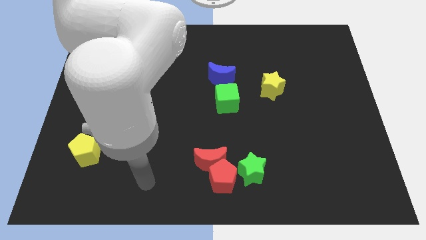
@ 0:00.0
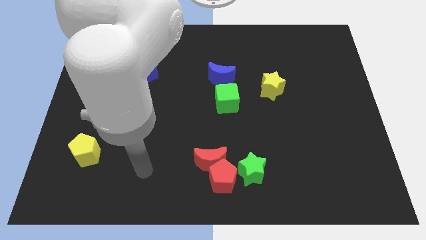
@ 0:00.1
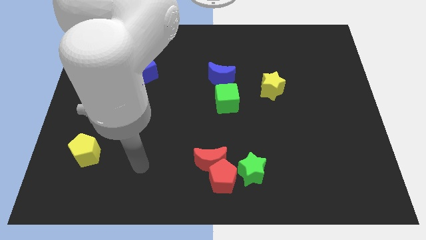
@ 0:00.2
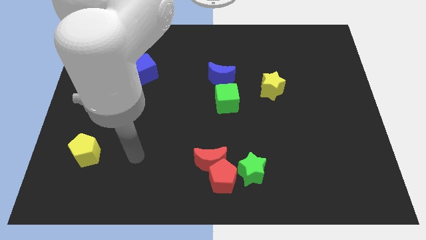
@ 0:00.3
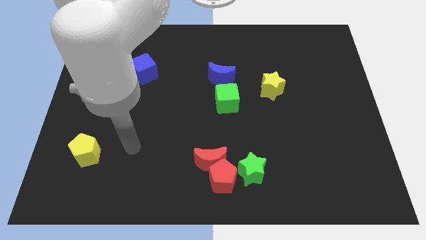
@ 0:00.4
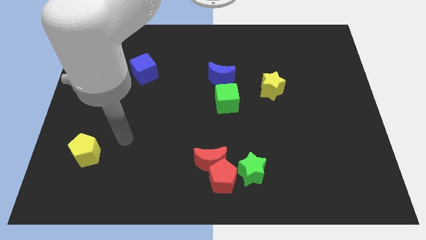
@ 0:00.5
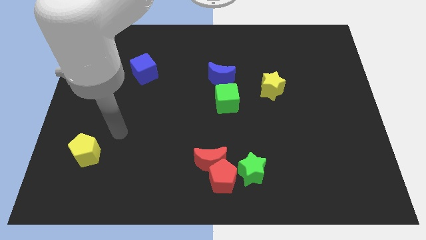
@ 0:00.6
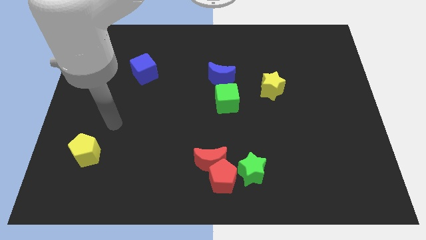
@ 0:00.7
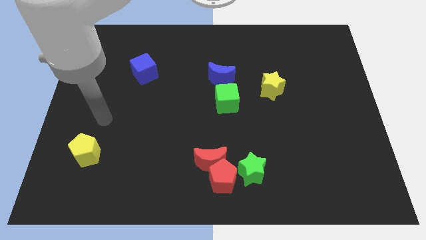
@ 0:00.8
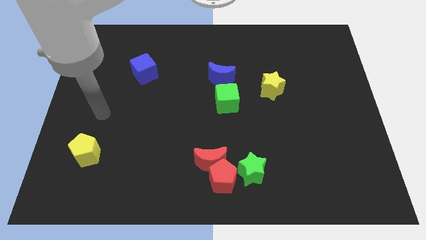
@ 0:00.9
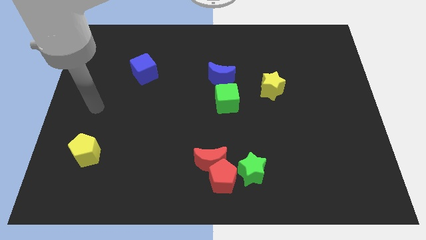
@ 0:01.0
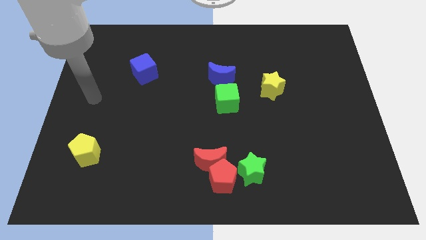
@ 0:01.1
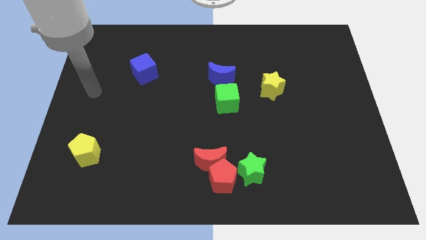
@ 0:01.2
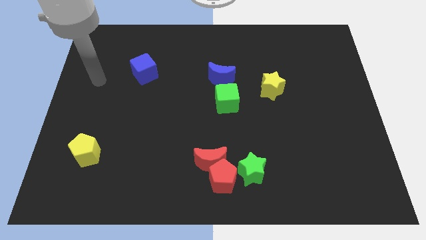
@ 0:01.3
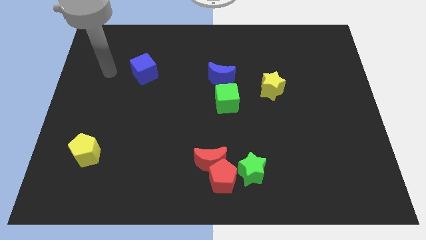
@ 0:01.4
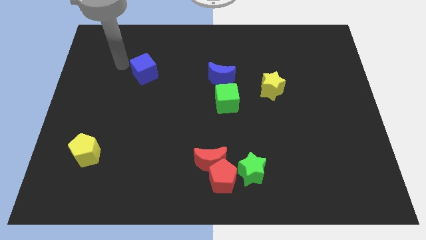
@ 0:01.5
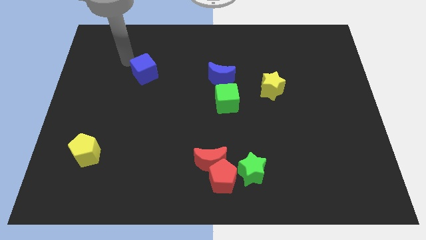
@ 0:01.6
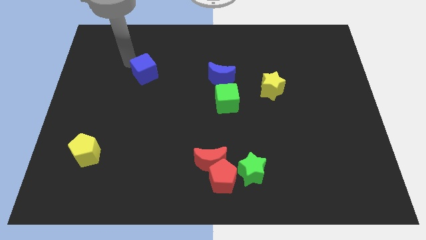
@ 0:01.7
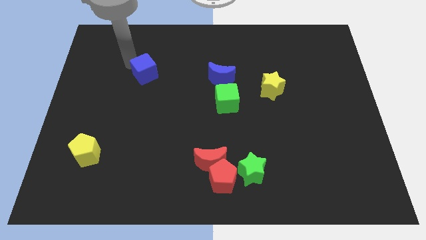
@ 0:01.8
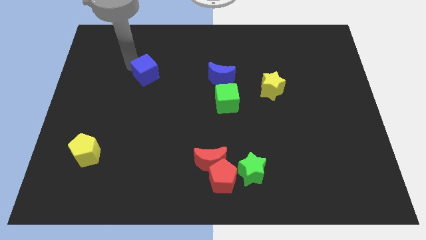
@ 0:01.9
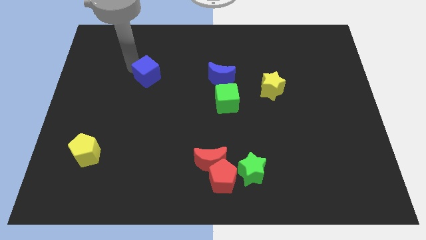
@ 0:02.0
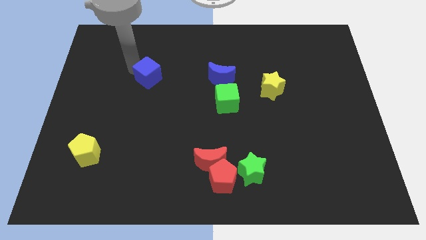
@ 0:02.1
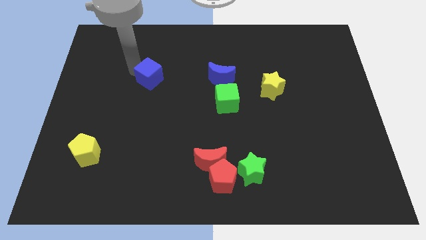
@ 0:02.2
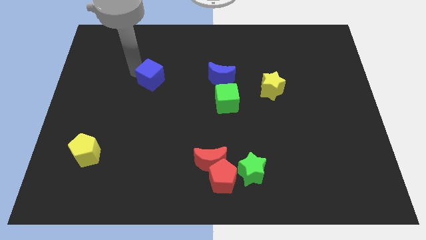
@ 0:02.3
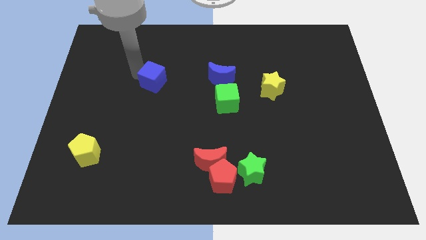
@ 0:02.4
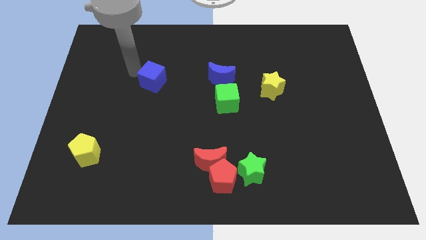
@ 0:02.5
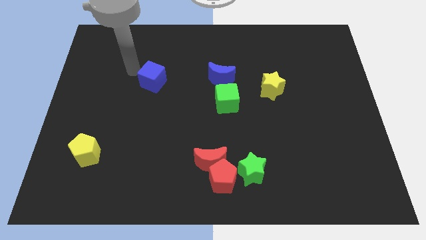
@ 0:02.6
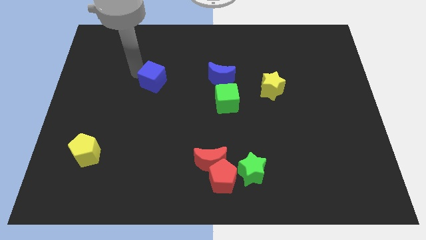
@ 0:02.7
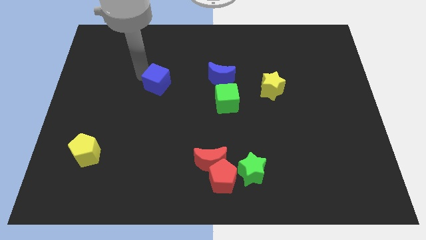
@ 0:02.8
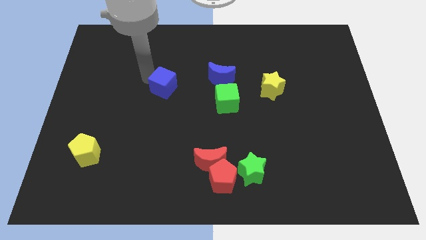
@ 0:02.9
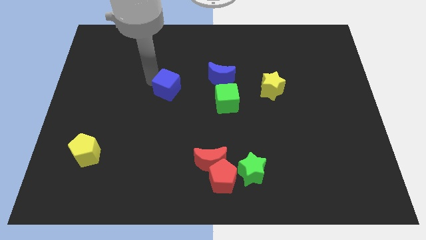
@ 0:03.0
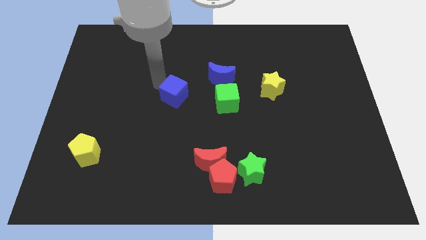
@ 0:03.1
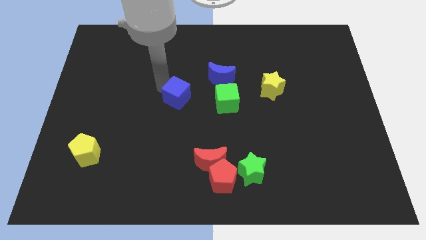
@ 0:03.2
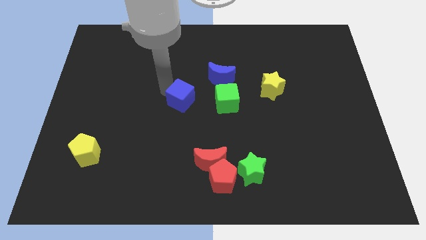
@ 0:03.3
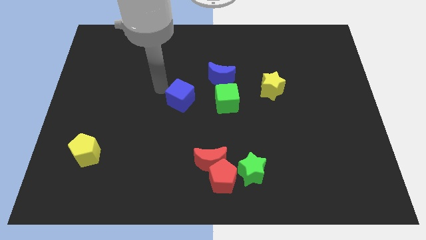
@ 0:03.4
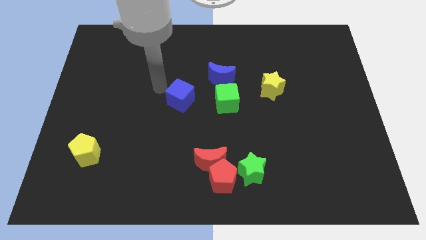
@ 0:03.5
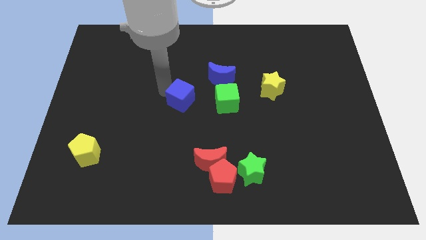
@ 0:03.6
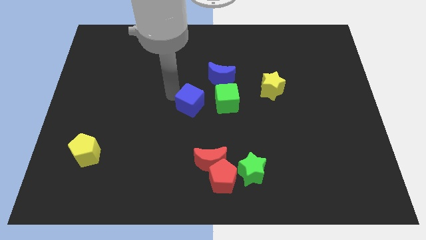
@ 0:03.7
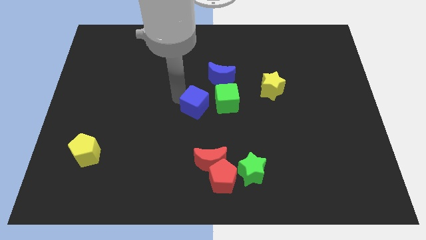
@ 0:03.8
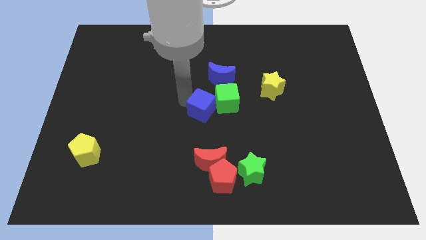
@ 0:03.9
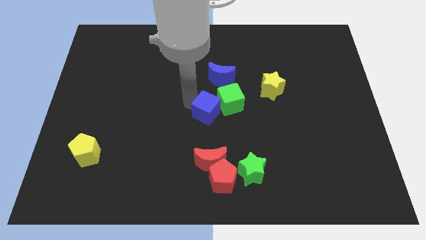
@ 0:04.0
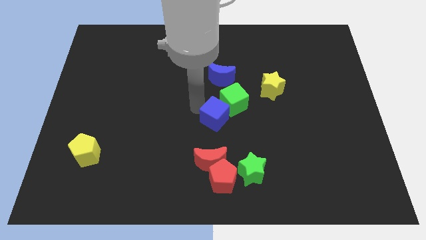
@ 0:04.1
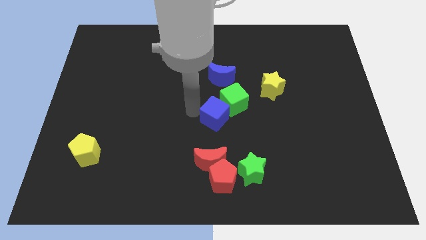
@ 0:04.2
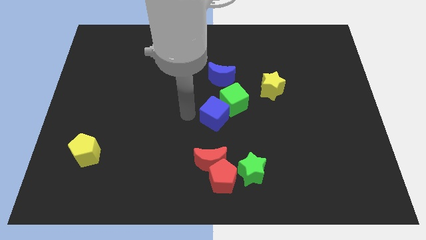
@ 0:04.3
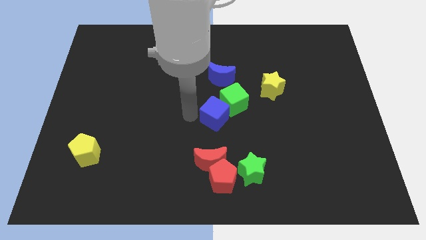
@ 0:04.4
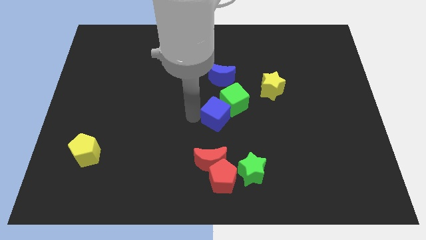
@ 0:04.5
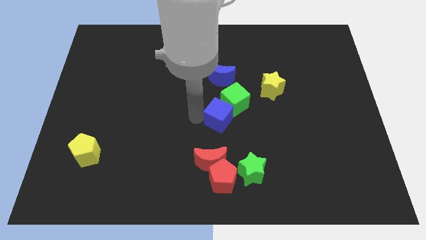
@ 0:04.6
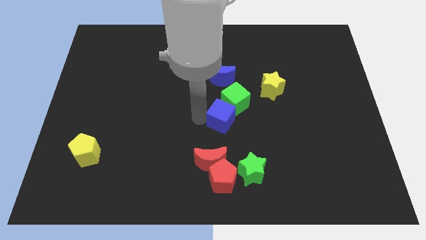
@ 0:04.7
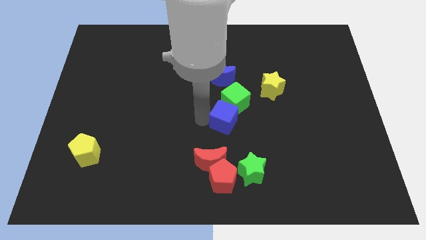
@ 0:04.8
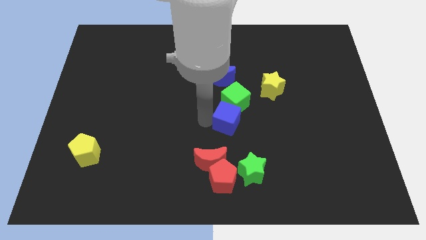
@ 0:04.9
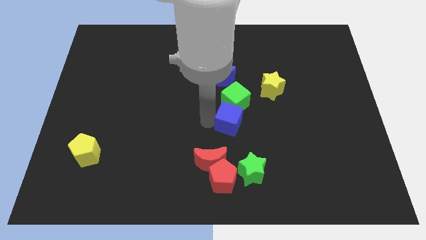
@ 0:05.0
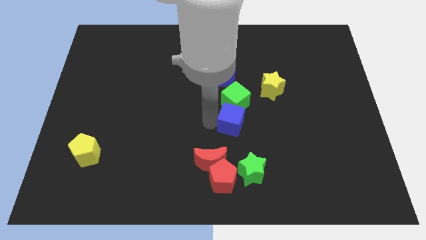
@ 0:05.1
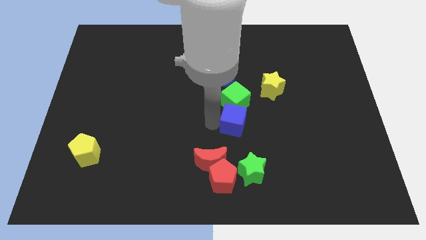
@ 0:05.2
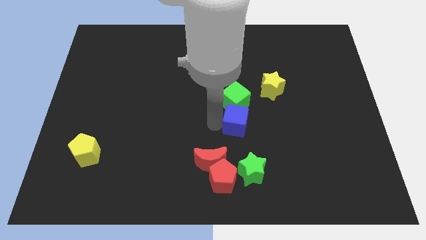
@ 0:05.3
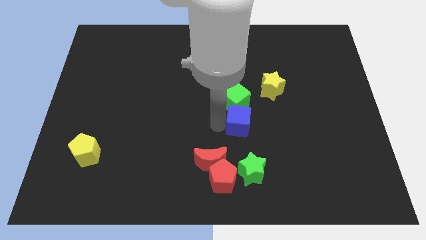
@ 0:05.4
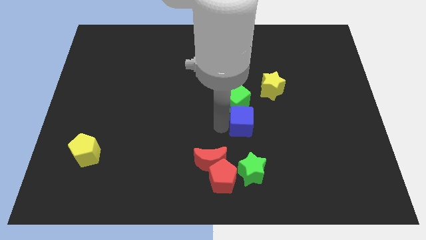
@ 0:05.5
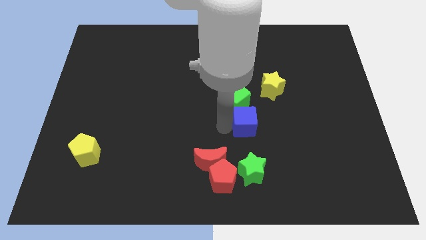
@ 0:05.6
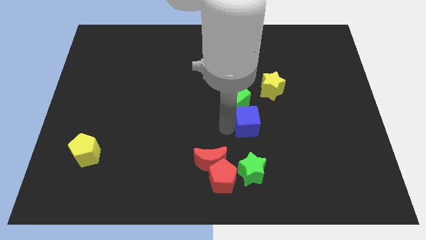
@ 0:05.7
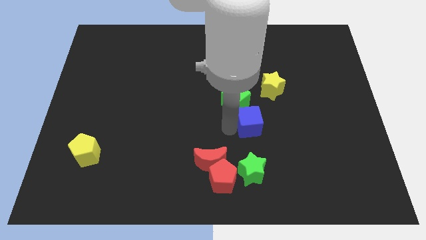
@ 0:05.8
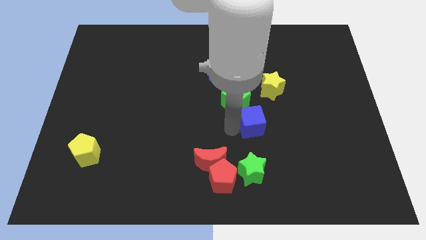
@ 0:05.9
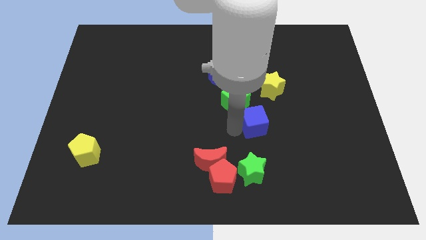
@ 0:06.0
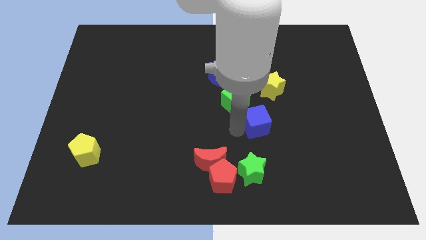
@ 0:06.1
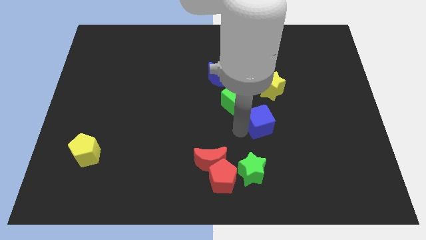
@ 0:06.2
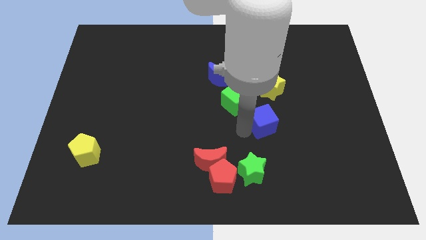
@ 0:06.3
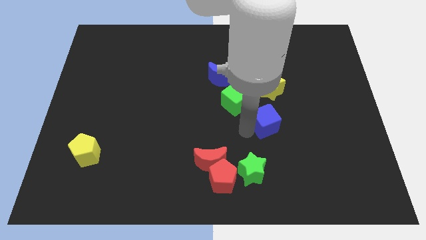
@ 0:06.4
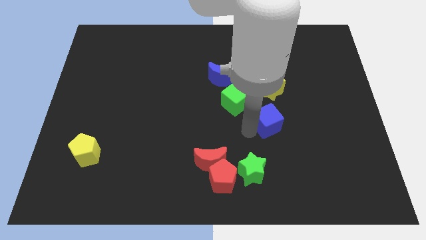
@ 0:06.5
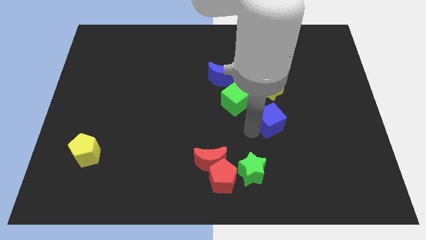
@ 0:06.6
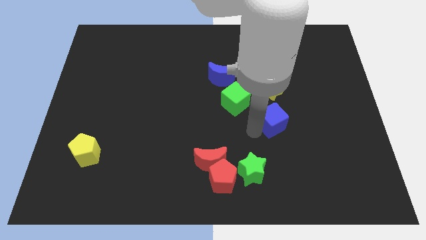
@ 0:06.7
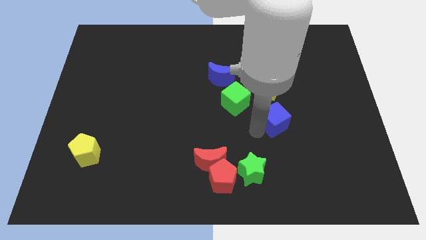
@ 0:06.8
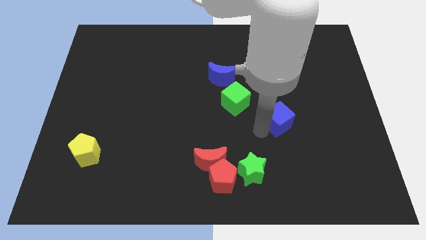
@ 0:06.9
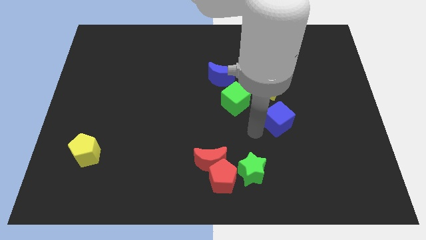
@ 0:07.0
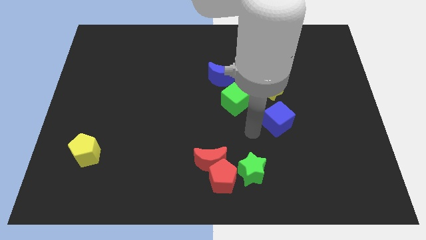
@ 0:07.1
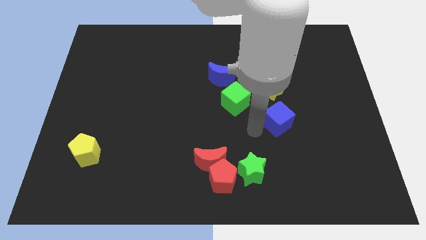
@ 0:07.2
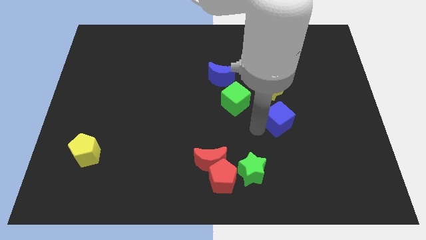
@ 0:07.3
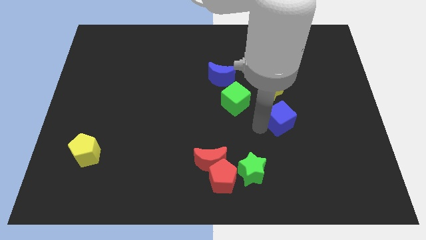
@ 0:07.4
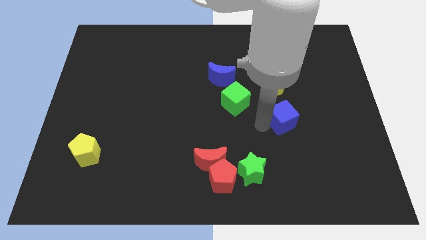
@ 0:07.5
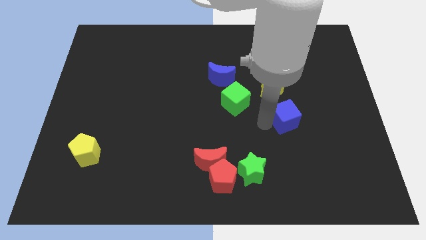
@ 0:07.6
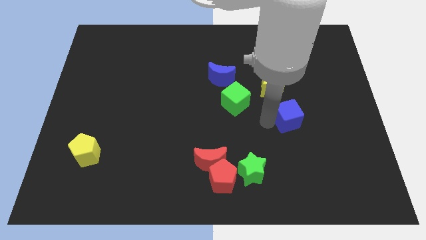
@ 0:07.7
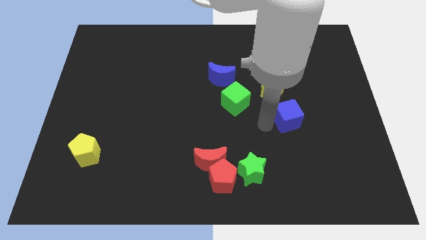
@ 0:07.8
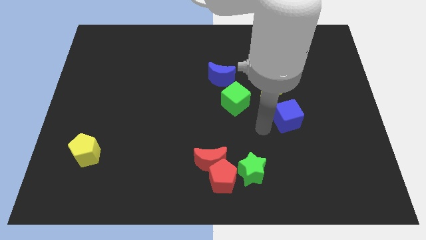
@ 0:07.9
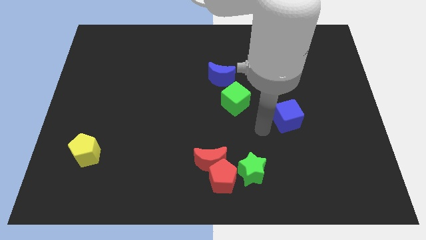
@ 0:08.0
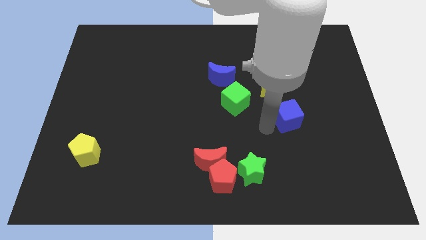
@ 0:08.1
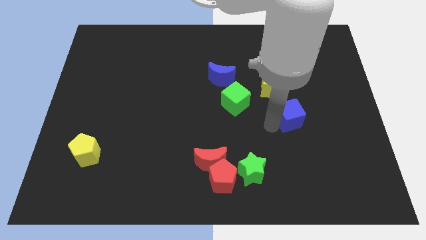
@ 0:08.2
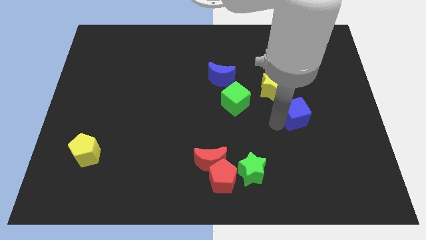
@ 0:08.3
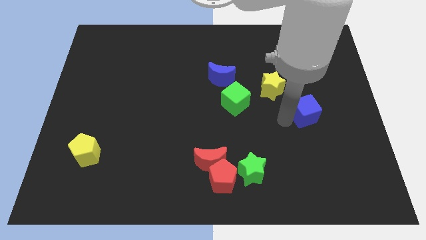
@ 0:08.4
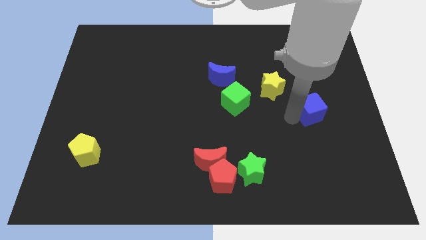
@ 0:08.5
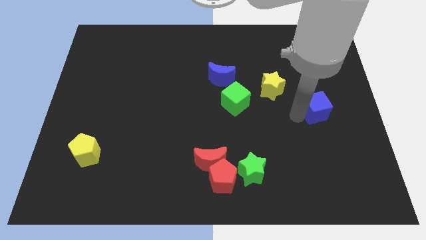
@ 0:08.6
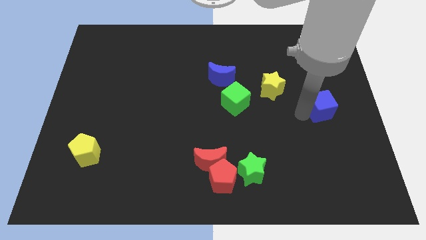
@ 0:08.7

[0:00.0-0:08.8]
slide the blue cube to the center right
